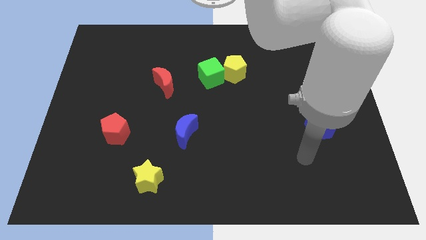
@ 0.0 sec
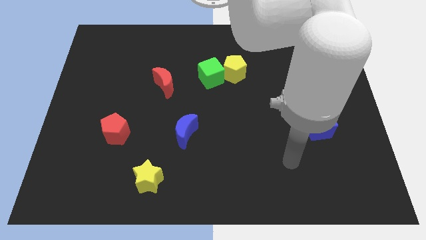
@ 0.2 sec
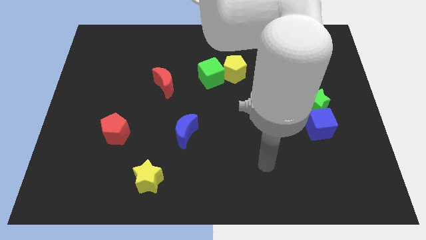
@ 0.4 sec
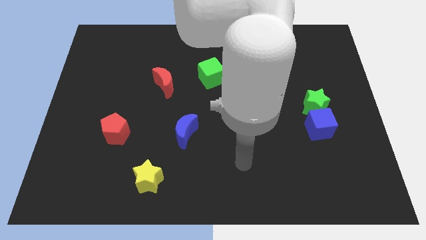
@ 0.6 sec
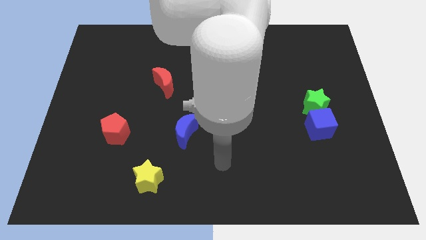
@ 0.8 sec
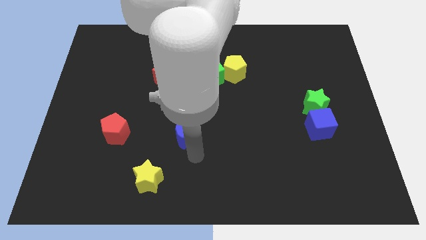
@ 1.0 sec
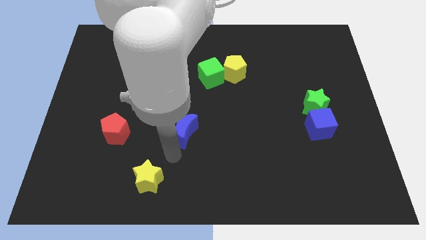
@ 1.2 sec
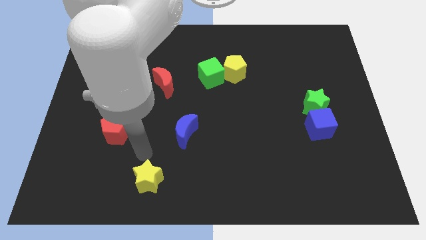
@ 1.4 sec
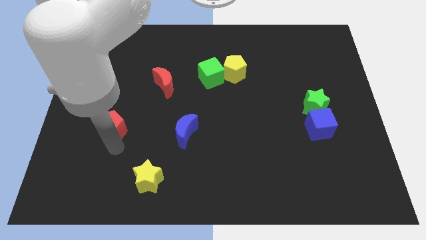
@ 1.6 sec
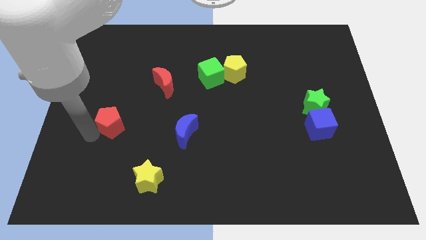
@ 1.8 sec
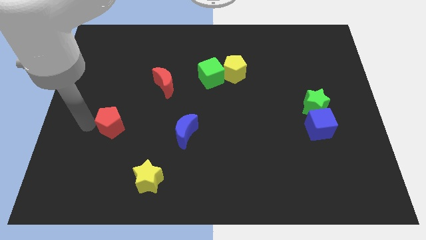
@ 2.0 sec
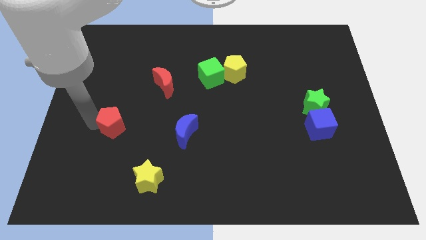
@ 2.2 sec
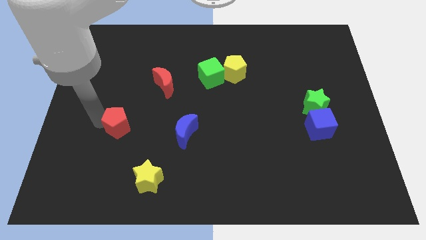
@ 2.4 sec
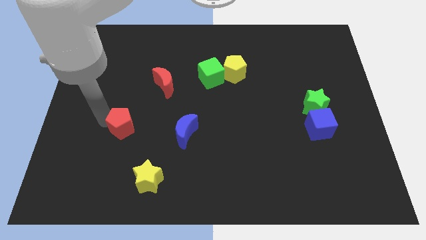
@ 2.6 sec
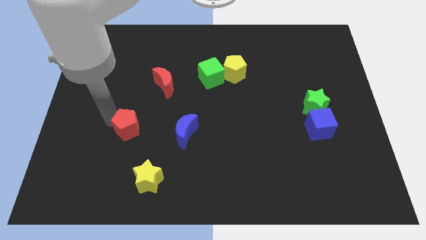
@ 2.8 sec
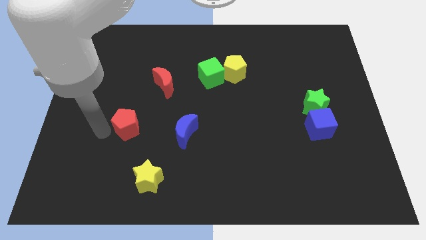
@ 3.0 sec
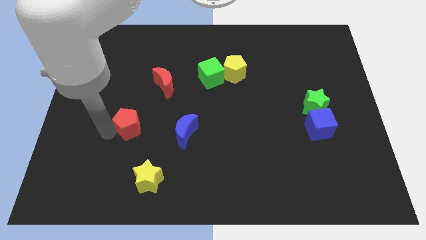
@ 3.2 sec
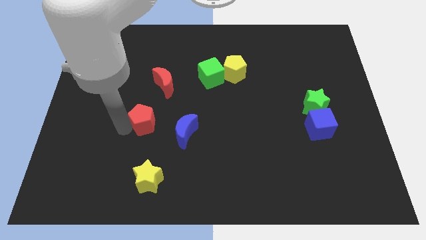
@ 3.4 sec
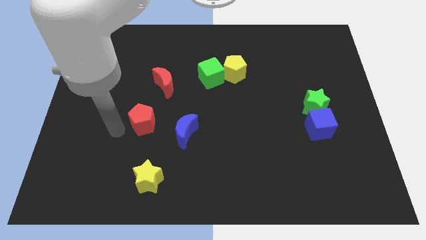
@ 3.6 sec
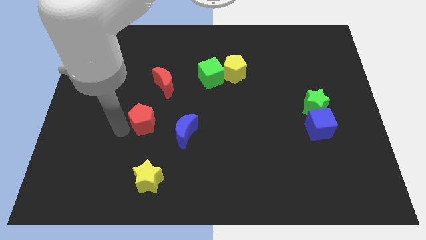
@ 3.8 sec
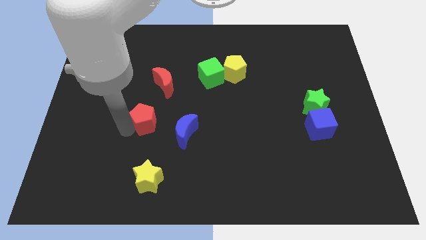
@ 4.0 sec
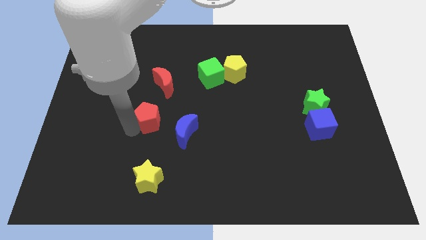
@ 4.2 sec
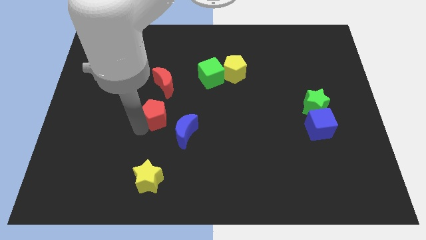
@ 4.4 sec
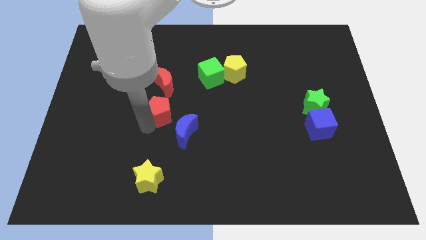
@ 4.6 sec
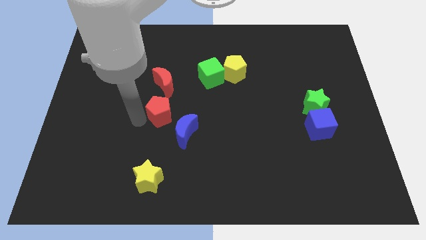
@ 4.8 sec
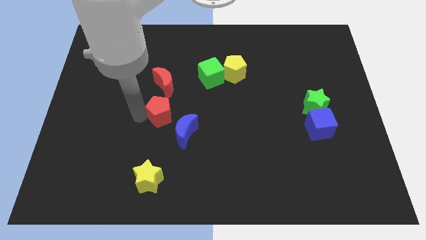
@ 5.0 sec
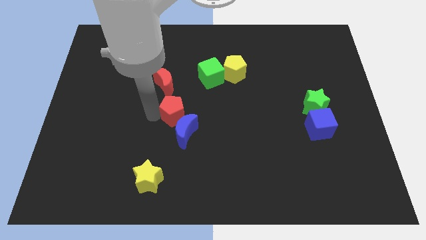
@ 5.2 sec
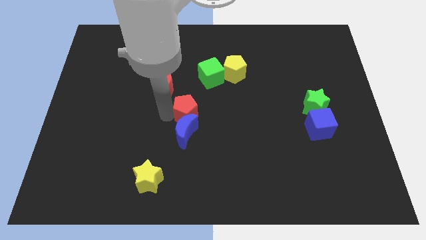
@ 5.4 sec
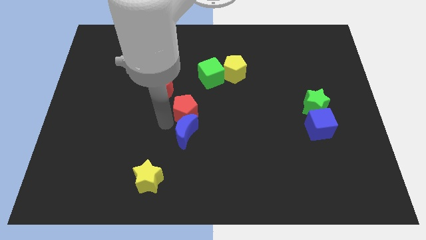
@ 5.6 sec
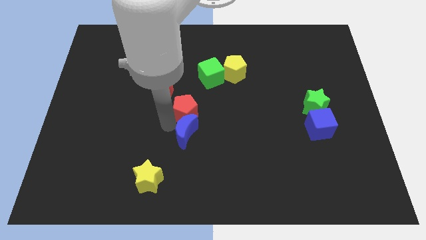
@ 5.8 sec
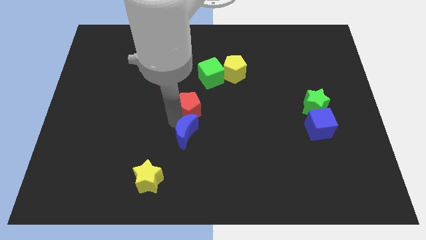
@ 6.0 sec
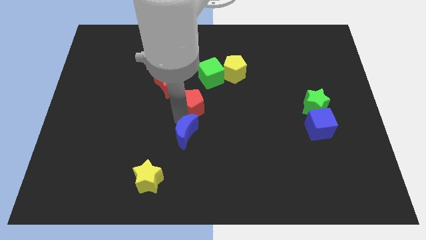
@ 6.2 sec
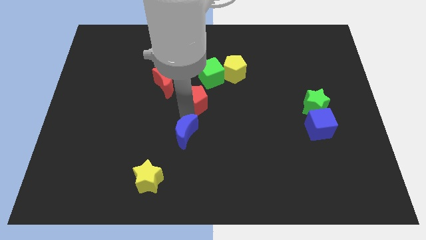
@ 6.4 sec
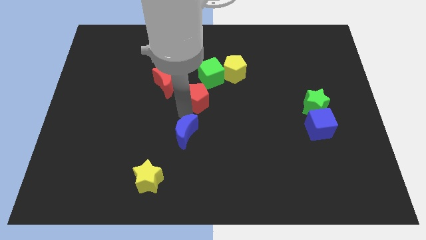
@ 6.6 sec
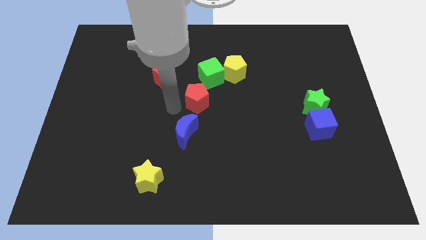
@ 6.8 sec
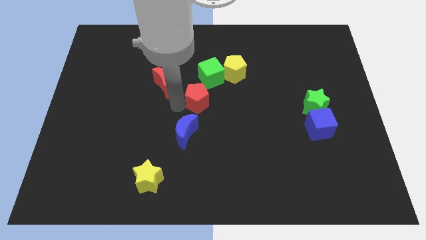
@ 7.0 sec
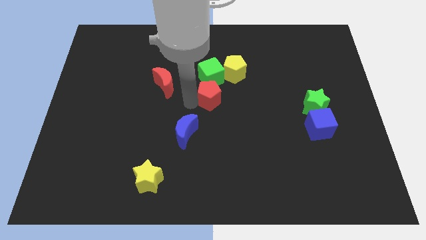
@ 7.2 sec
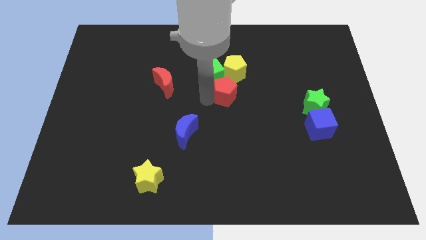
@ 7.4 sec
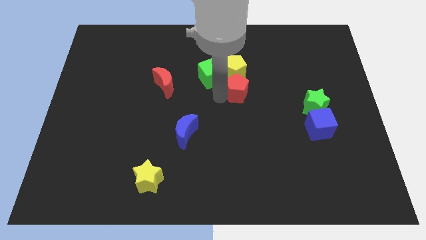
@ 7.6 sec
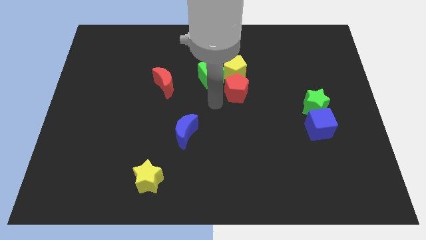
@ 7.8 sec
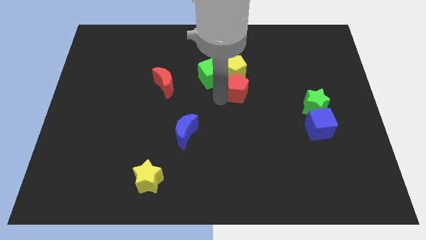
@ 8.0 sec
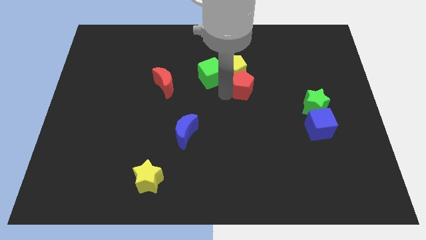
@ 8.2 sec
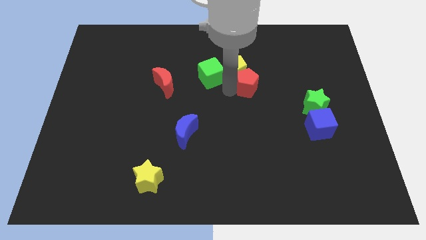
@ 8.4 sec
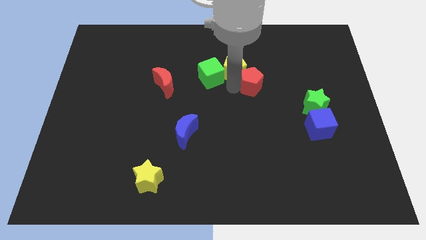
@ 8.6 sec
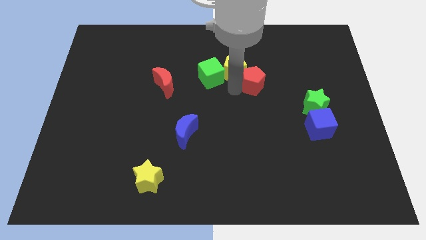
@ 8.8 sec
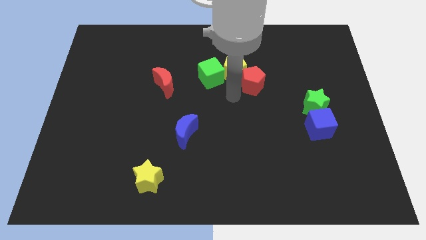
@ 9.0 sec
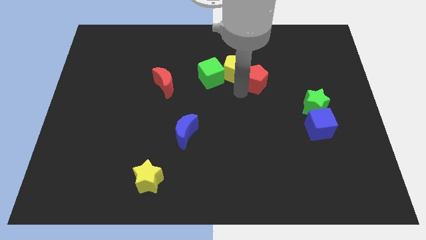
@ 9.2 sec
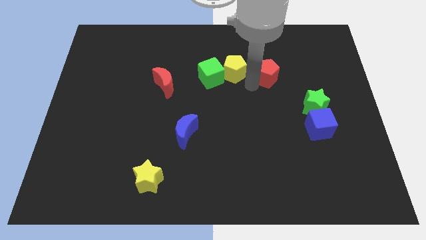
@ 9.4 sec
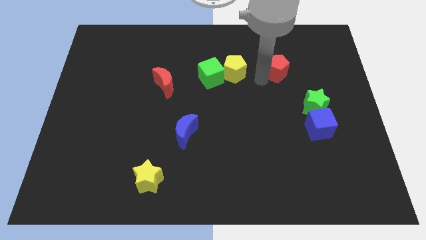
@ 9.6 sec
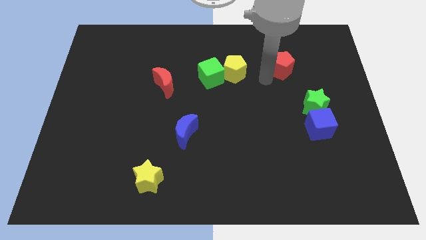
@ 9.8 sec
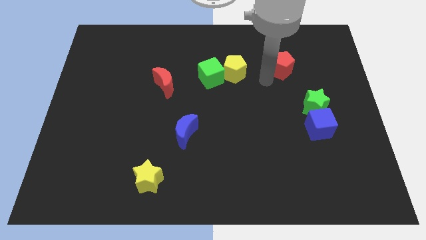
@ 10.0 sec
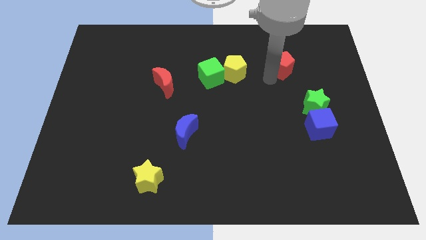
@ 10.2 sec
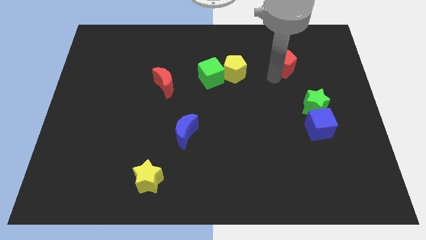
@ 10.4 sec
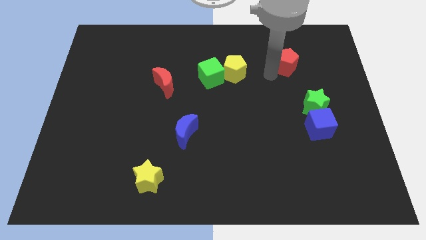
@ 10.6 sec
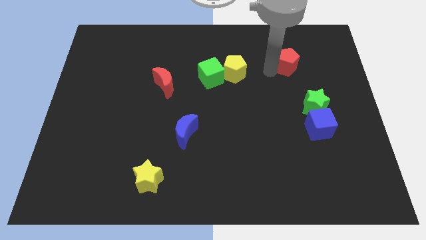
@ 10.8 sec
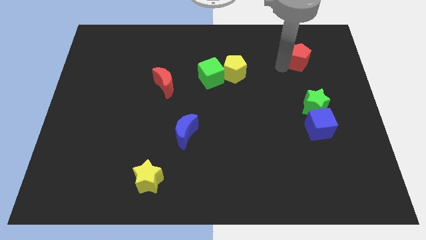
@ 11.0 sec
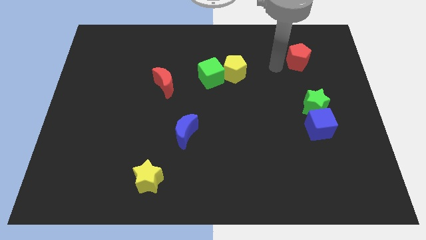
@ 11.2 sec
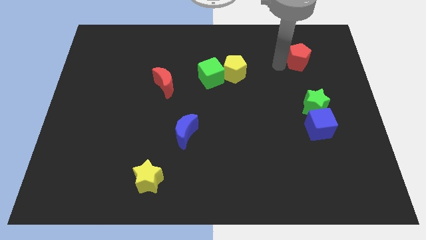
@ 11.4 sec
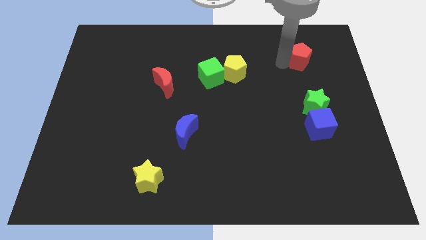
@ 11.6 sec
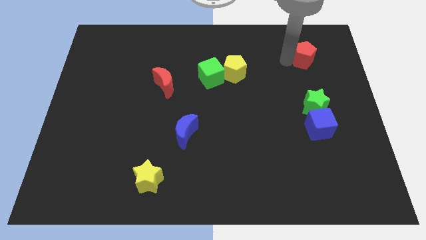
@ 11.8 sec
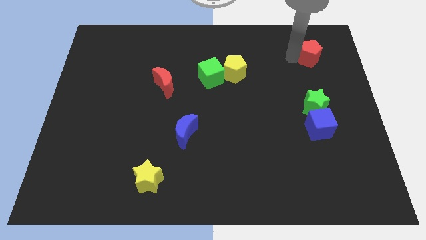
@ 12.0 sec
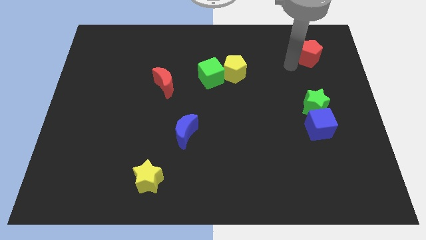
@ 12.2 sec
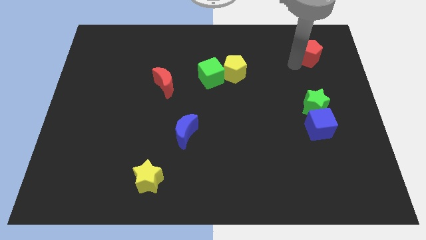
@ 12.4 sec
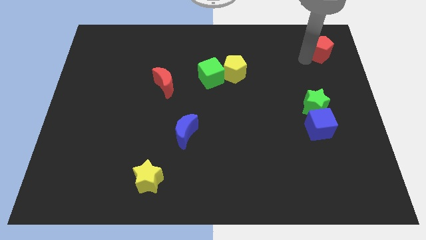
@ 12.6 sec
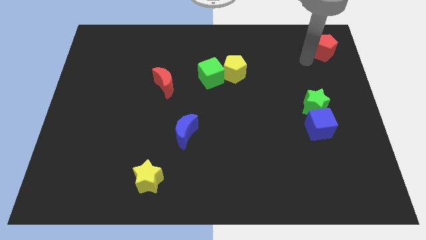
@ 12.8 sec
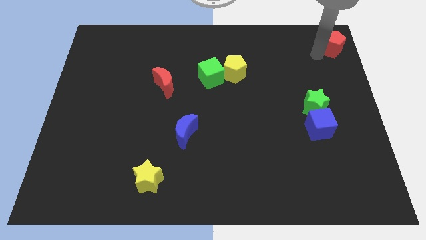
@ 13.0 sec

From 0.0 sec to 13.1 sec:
slide the red pentagon to the top right corner
